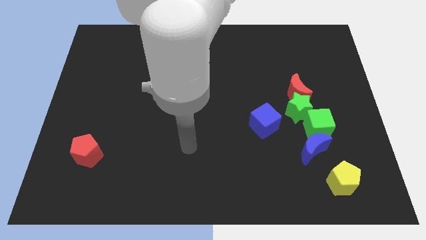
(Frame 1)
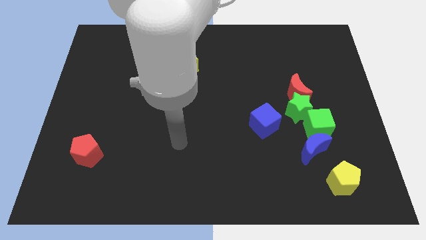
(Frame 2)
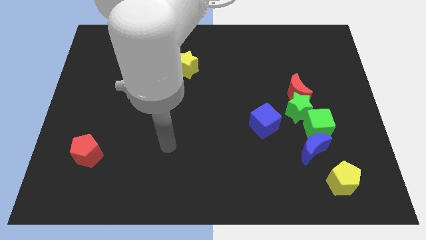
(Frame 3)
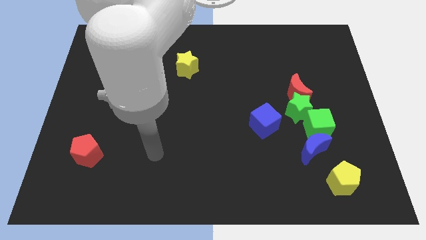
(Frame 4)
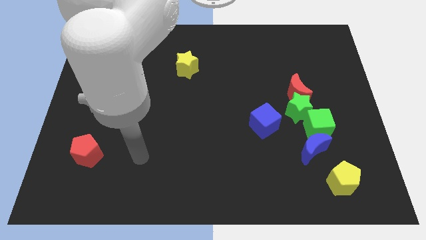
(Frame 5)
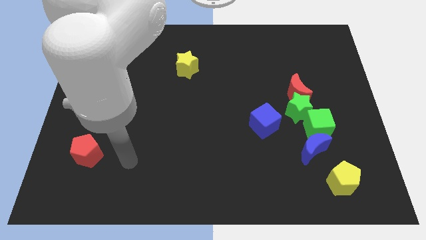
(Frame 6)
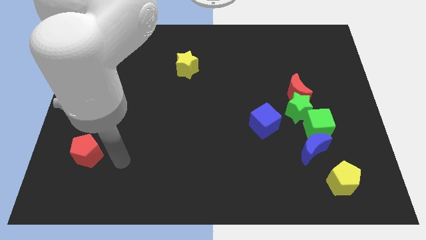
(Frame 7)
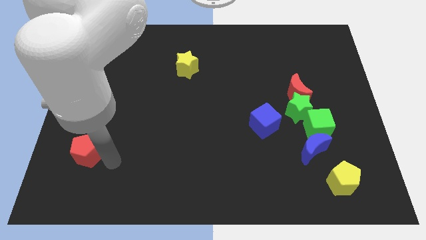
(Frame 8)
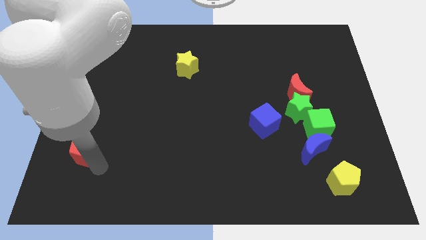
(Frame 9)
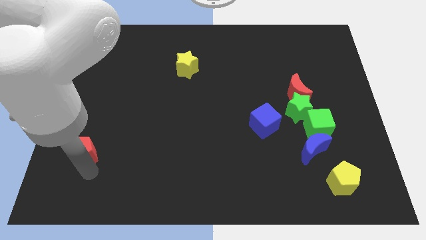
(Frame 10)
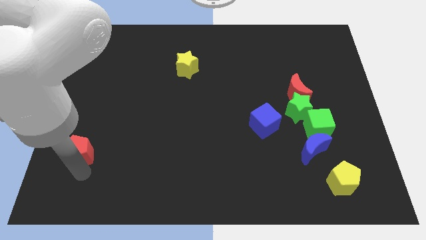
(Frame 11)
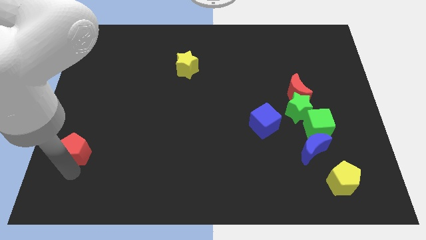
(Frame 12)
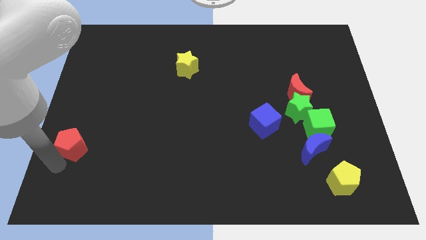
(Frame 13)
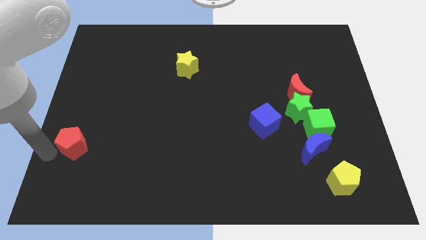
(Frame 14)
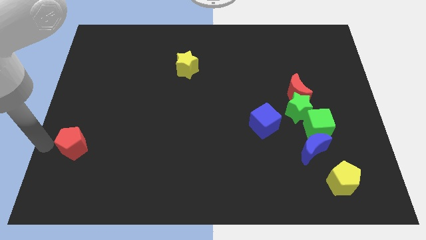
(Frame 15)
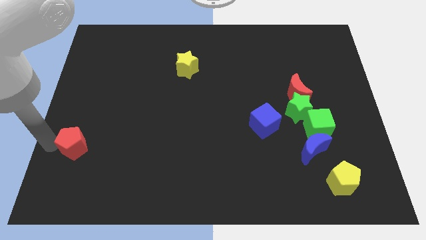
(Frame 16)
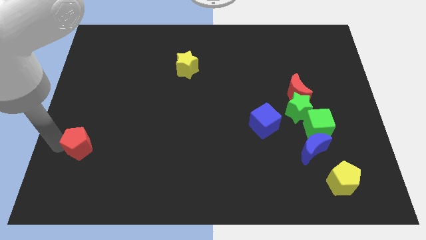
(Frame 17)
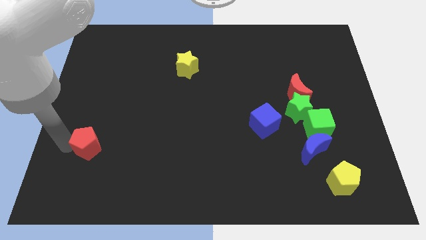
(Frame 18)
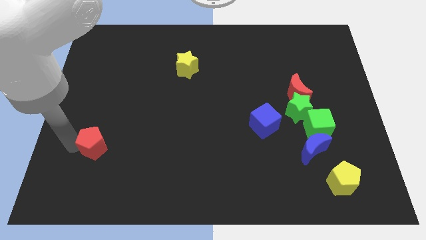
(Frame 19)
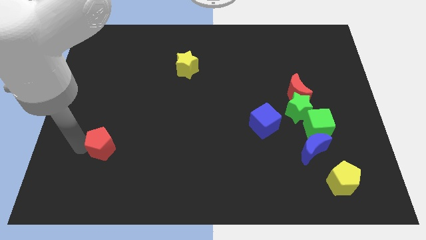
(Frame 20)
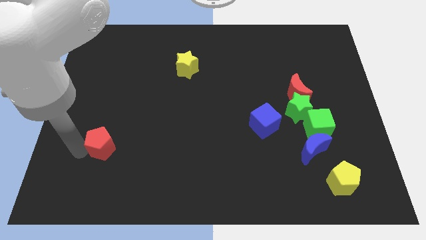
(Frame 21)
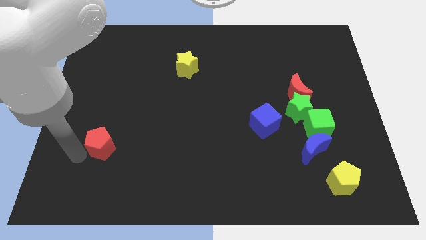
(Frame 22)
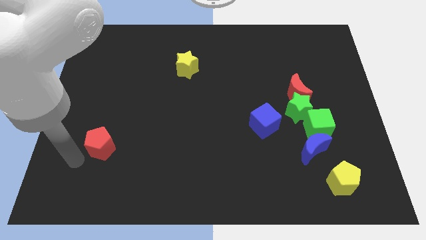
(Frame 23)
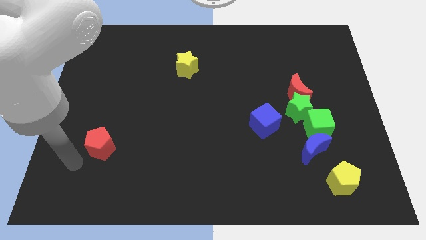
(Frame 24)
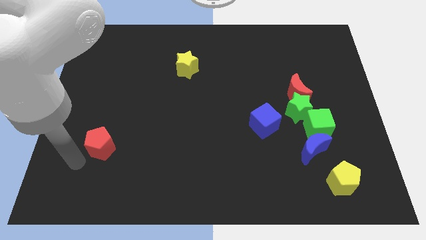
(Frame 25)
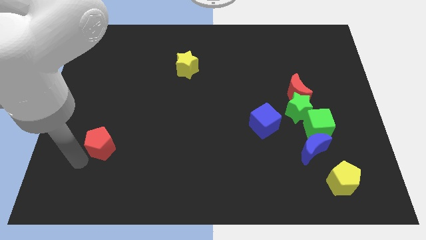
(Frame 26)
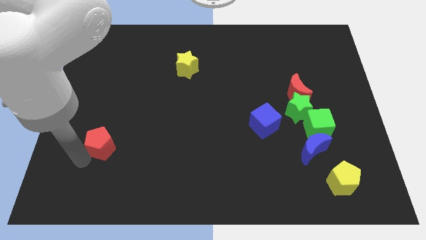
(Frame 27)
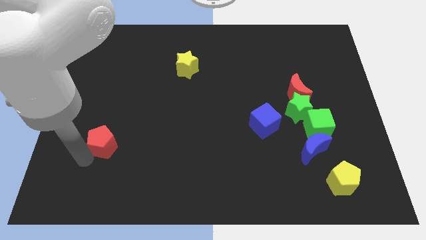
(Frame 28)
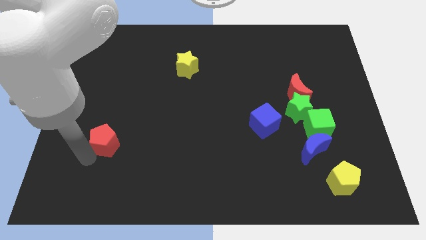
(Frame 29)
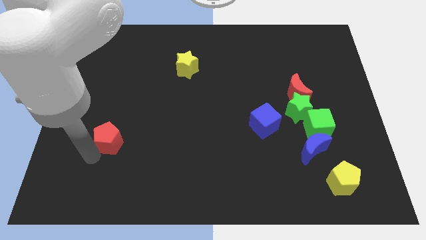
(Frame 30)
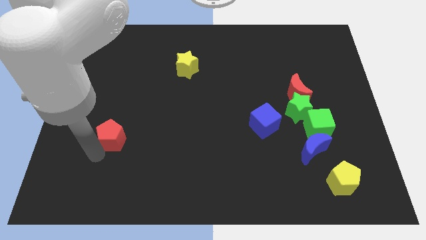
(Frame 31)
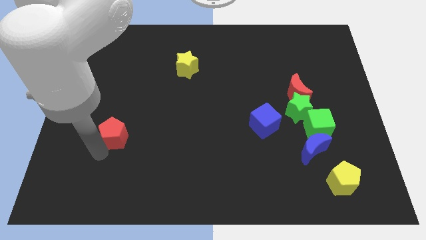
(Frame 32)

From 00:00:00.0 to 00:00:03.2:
push the red pentagon up and then to the right a bit

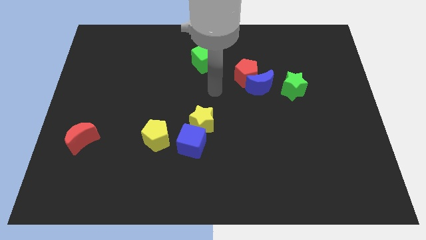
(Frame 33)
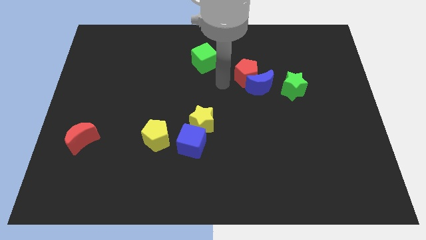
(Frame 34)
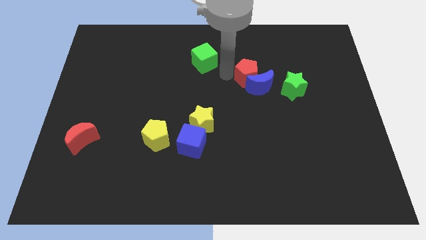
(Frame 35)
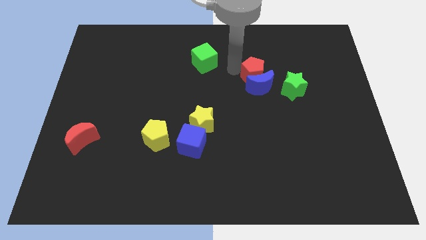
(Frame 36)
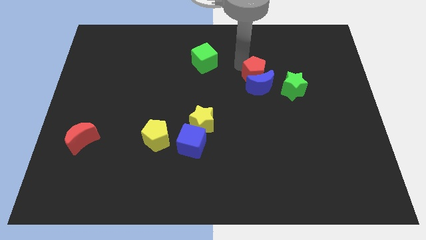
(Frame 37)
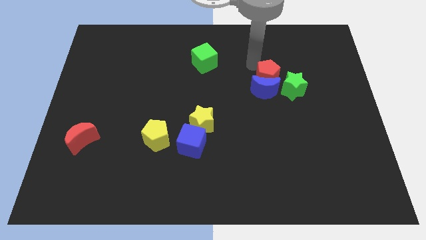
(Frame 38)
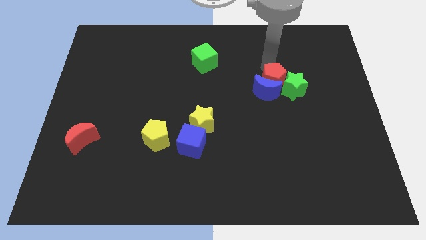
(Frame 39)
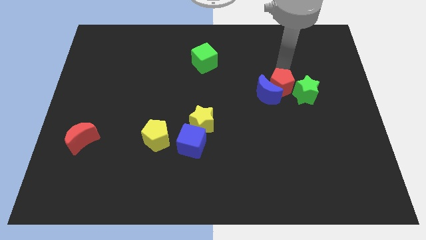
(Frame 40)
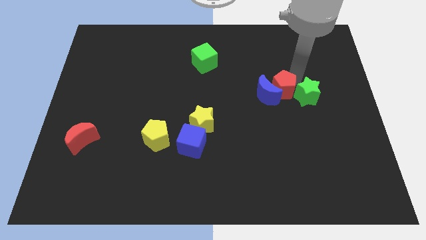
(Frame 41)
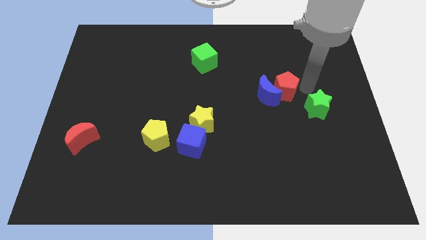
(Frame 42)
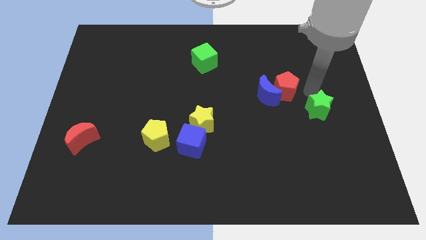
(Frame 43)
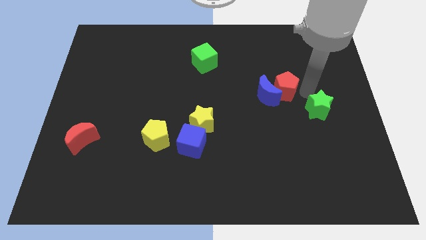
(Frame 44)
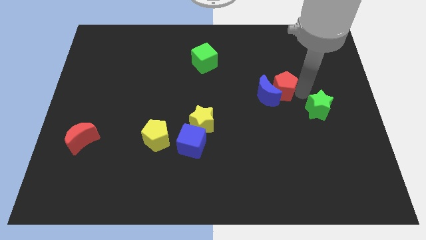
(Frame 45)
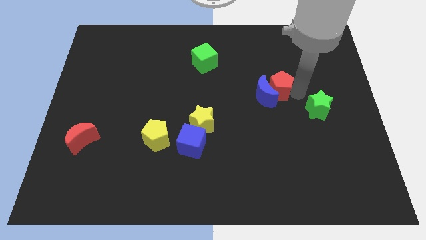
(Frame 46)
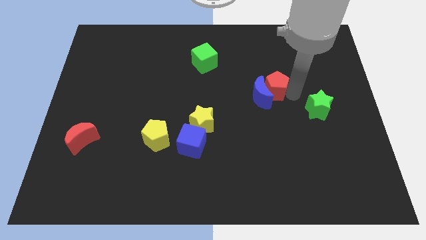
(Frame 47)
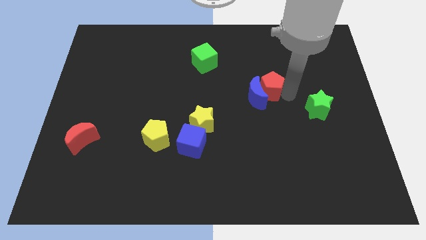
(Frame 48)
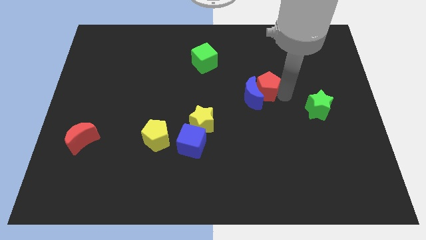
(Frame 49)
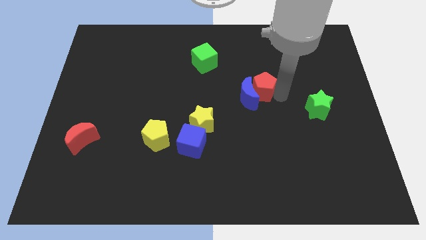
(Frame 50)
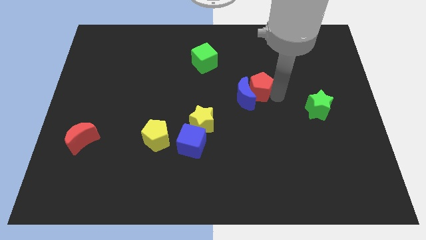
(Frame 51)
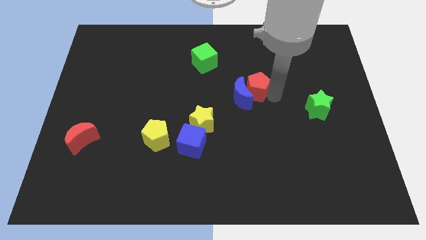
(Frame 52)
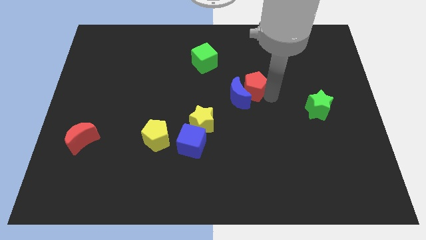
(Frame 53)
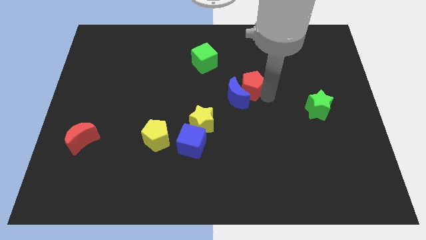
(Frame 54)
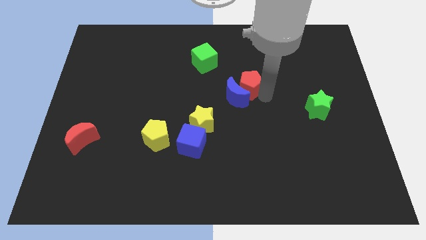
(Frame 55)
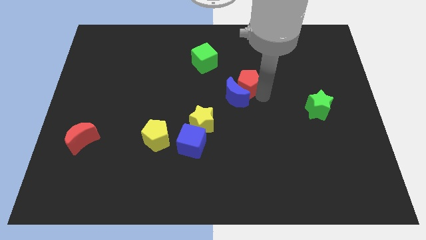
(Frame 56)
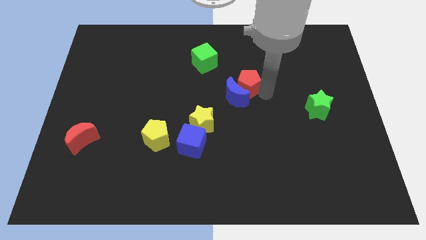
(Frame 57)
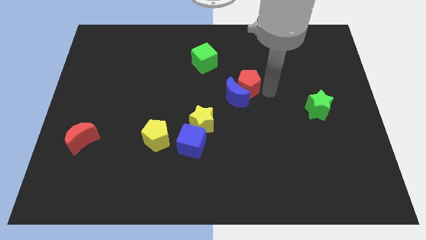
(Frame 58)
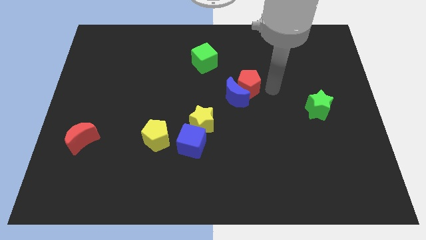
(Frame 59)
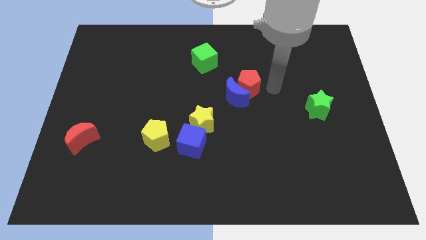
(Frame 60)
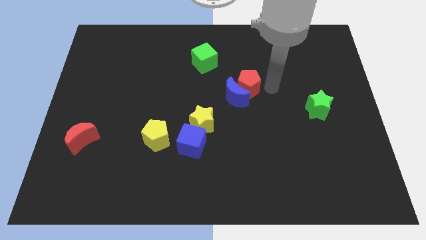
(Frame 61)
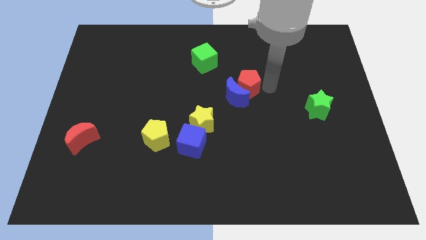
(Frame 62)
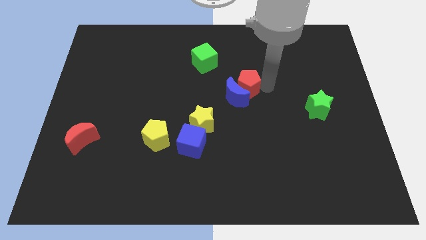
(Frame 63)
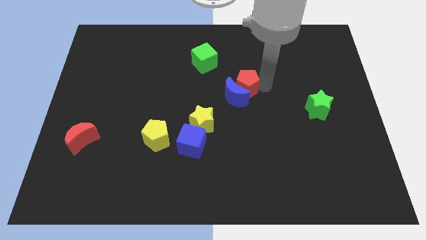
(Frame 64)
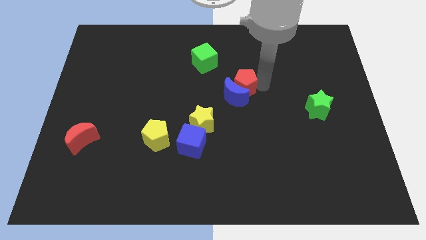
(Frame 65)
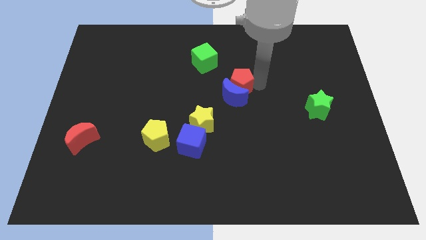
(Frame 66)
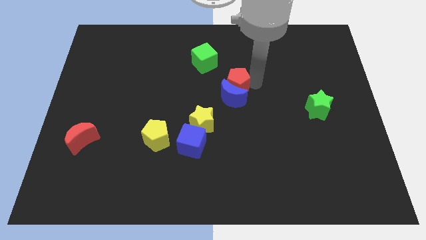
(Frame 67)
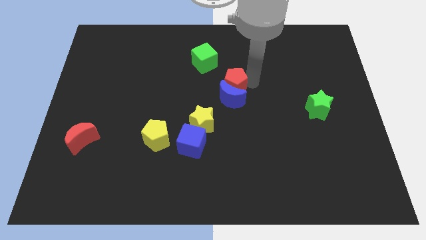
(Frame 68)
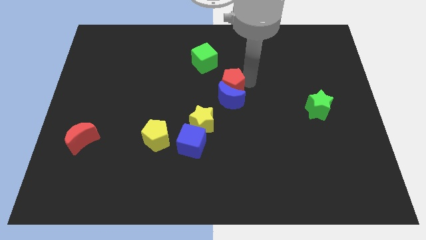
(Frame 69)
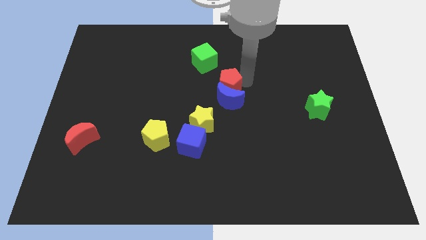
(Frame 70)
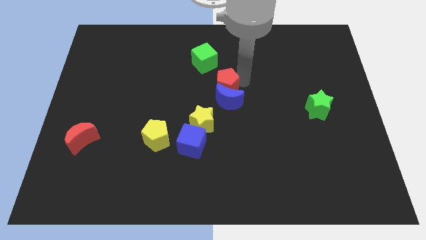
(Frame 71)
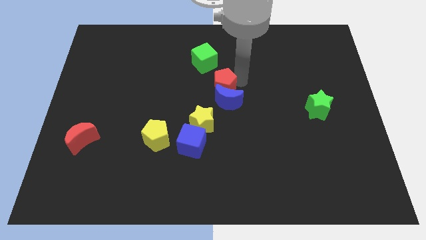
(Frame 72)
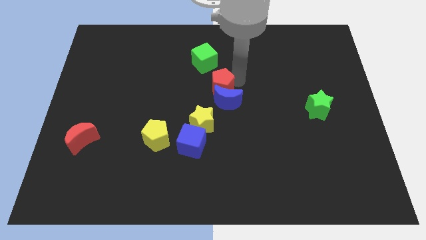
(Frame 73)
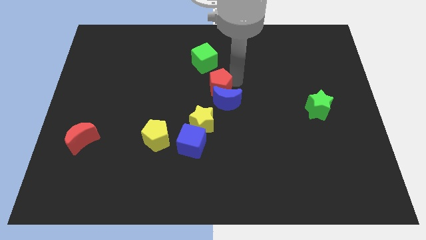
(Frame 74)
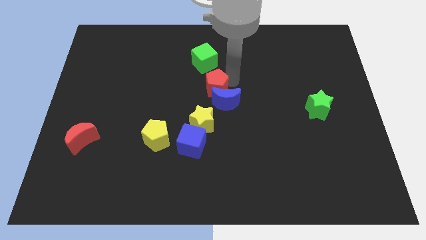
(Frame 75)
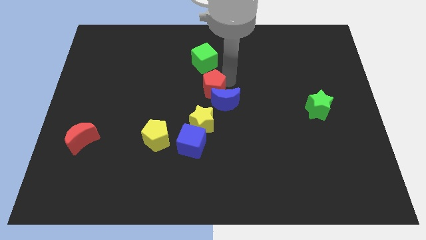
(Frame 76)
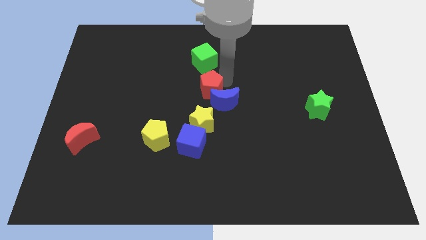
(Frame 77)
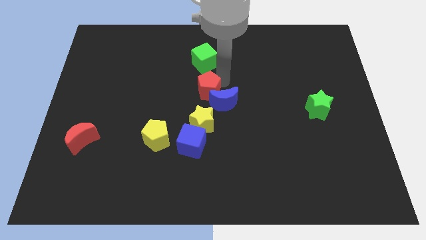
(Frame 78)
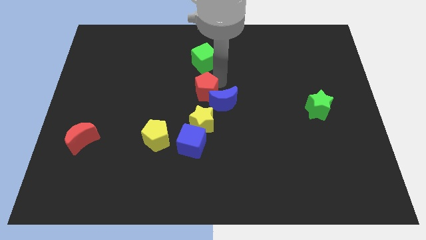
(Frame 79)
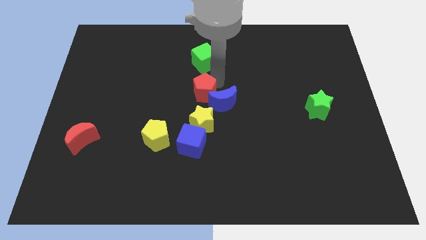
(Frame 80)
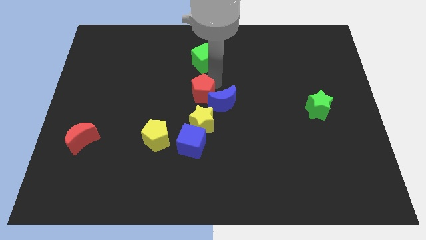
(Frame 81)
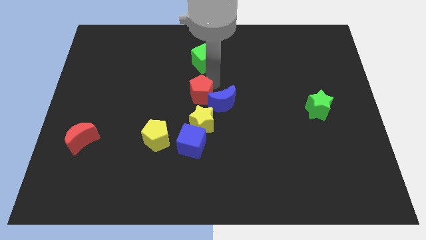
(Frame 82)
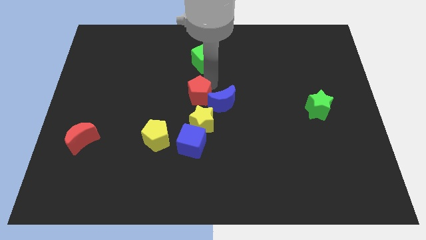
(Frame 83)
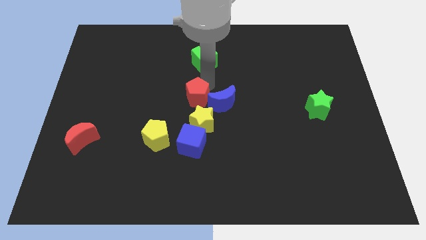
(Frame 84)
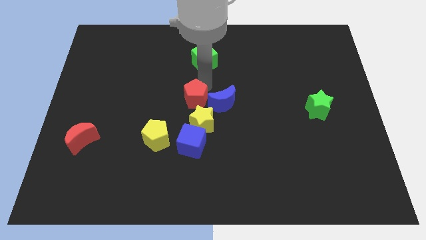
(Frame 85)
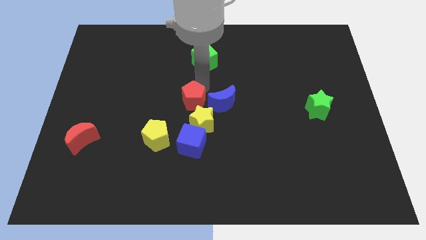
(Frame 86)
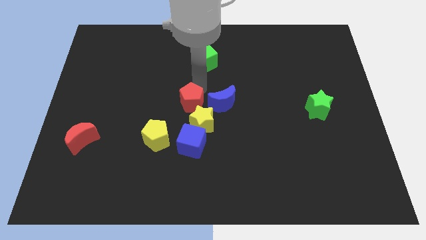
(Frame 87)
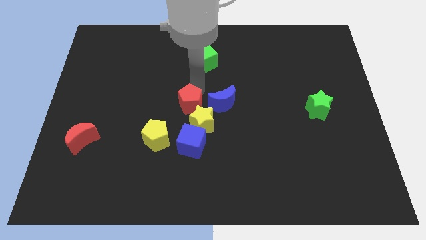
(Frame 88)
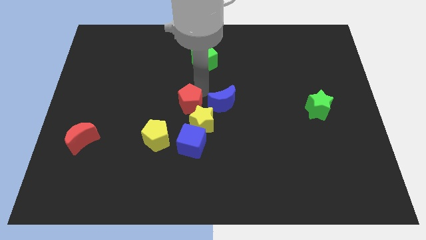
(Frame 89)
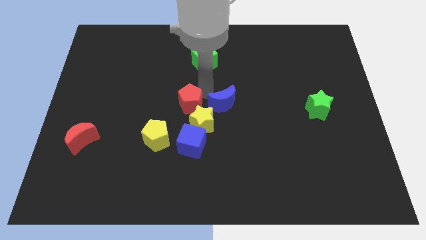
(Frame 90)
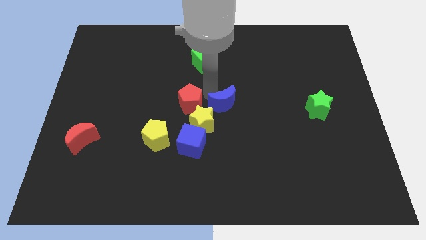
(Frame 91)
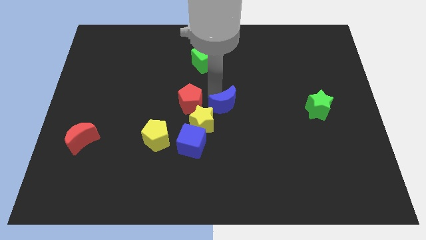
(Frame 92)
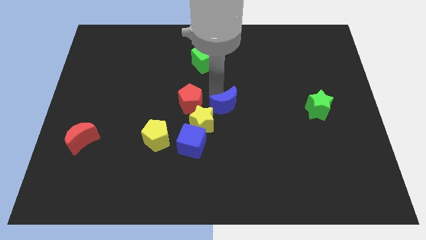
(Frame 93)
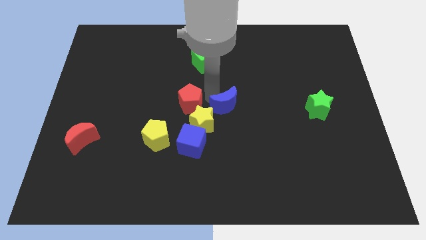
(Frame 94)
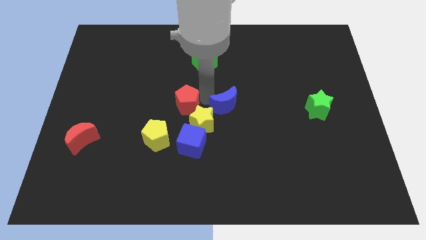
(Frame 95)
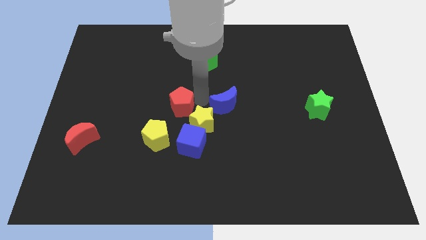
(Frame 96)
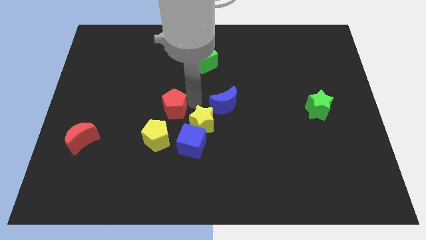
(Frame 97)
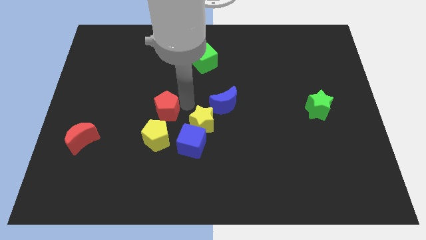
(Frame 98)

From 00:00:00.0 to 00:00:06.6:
move the red pentagon downwards and to the left
